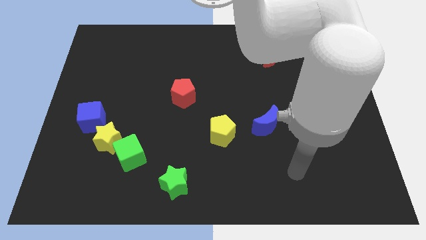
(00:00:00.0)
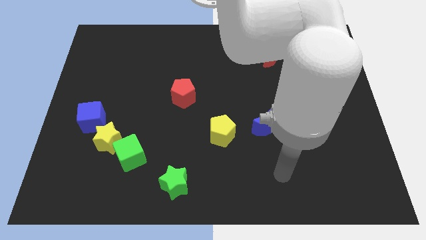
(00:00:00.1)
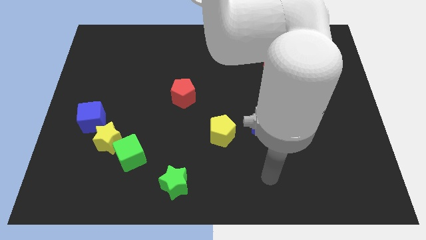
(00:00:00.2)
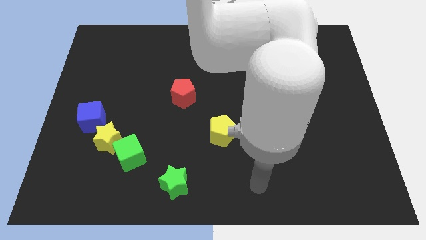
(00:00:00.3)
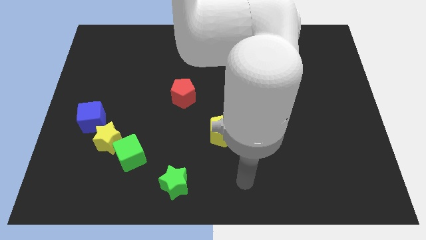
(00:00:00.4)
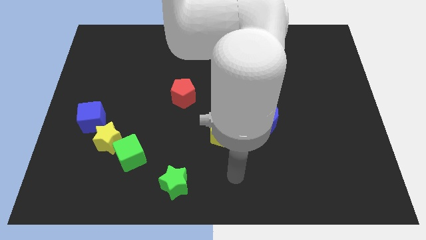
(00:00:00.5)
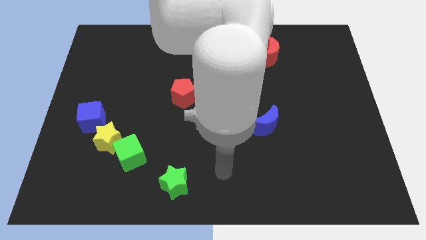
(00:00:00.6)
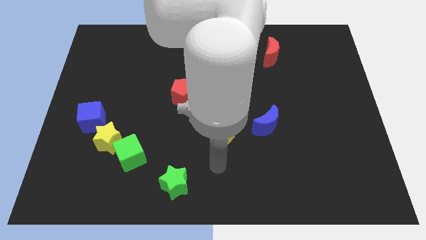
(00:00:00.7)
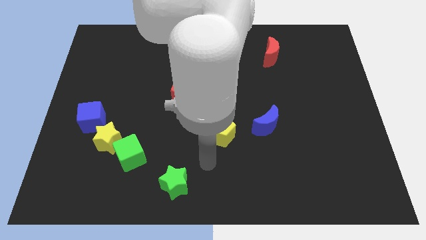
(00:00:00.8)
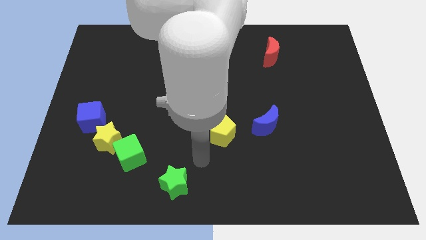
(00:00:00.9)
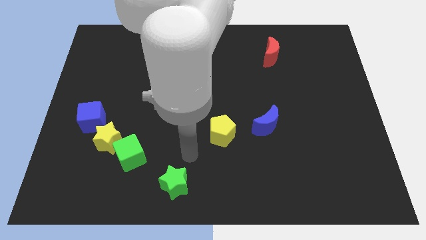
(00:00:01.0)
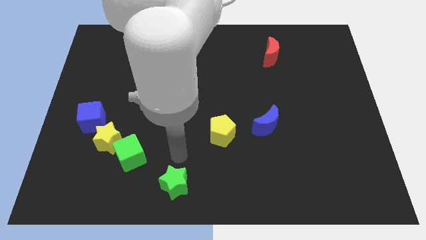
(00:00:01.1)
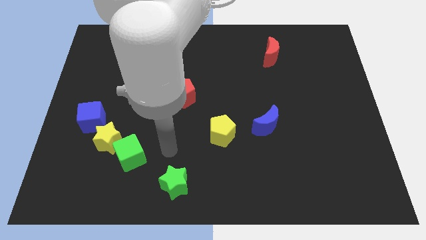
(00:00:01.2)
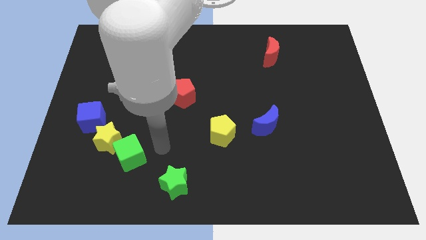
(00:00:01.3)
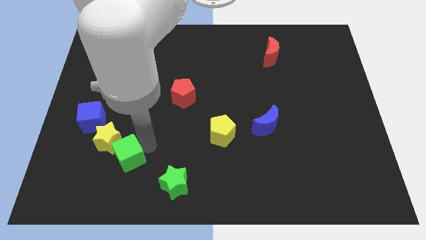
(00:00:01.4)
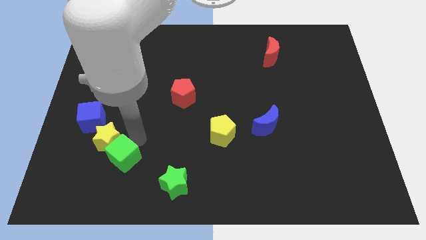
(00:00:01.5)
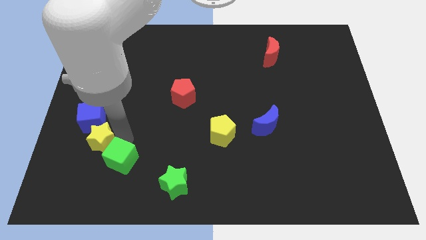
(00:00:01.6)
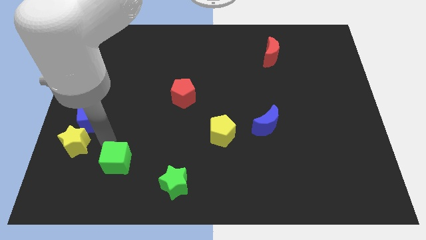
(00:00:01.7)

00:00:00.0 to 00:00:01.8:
pull the green cube apart from the yellow star

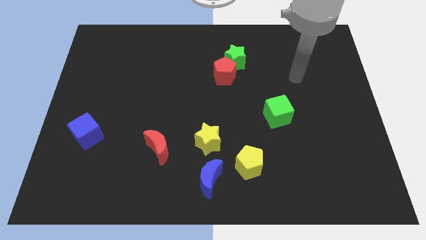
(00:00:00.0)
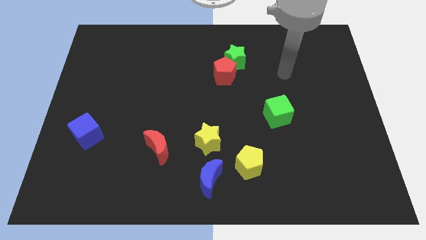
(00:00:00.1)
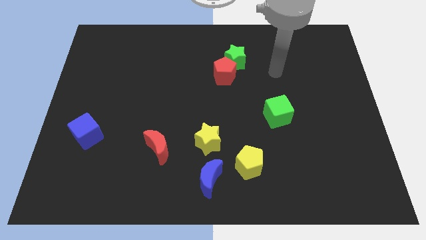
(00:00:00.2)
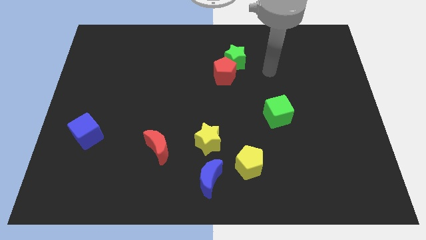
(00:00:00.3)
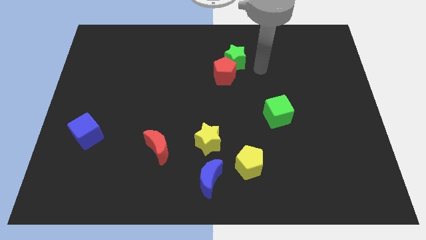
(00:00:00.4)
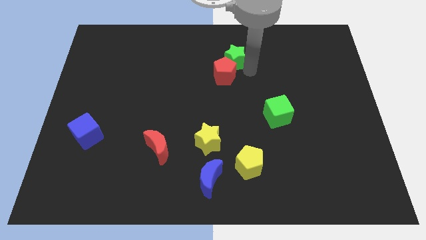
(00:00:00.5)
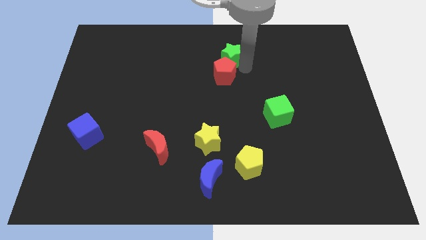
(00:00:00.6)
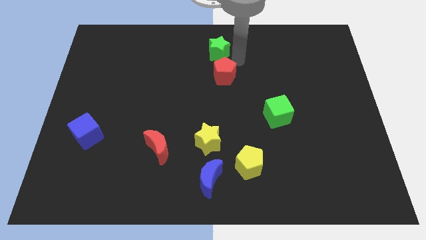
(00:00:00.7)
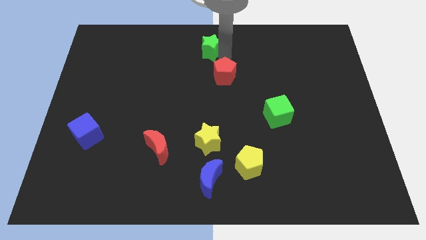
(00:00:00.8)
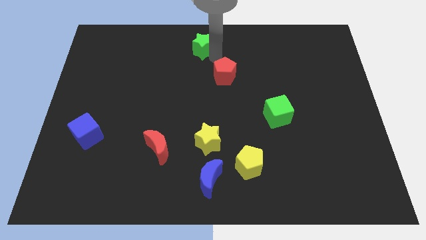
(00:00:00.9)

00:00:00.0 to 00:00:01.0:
pull the red pentagon apart from the green star

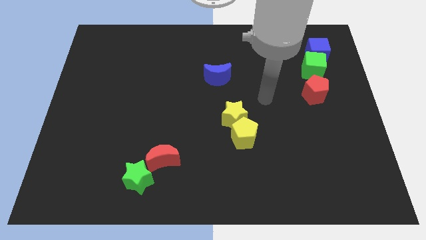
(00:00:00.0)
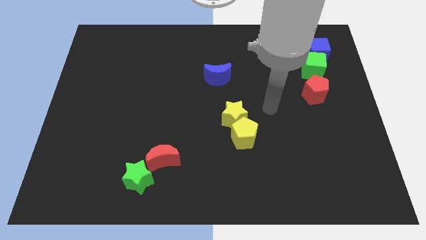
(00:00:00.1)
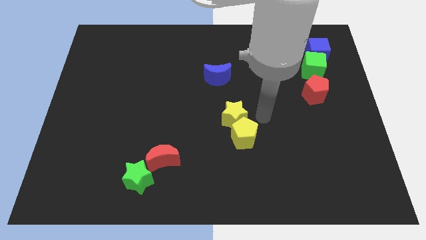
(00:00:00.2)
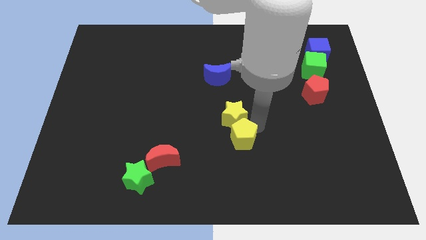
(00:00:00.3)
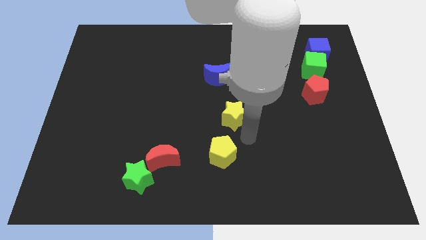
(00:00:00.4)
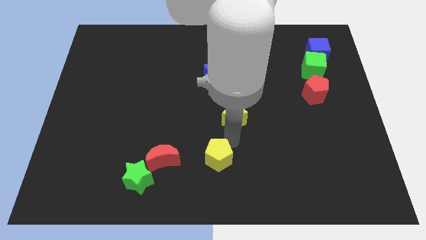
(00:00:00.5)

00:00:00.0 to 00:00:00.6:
move the yellow star away from the yellow pentagon

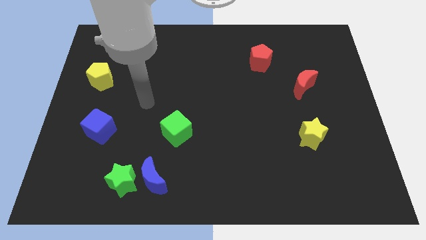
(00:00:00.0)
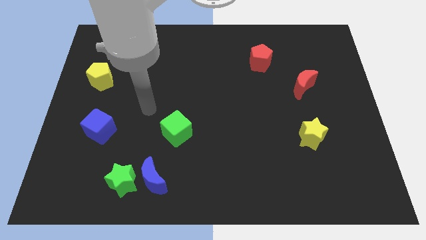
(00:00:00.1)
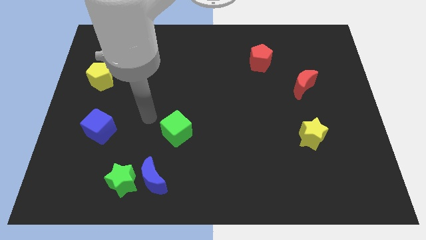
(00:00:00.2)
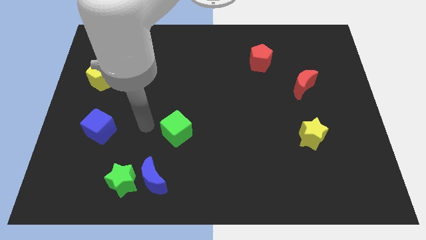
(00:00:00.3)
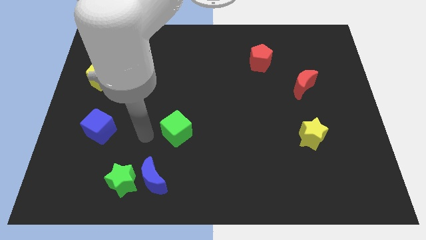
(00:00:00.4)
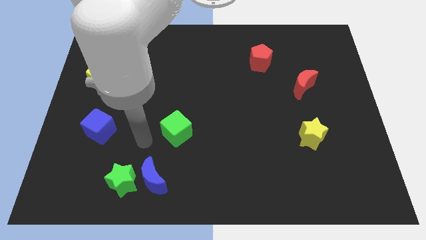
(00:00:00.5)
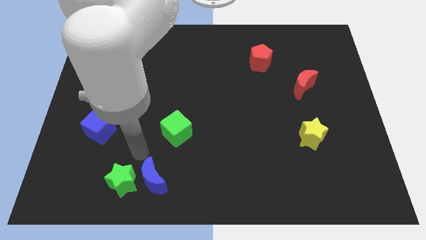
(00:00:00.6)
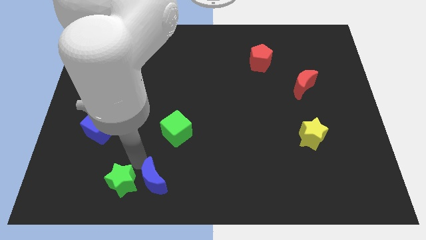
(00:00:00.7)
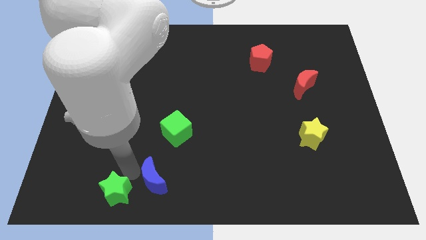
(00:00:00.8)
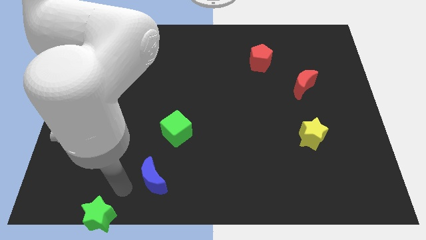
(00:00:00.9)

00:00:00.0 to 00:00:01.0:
move the blue moon away from the green star

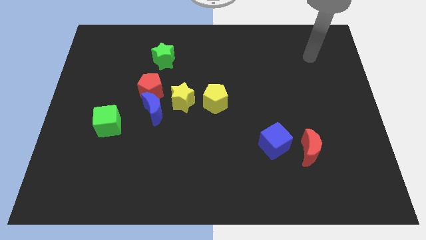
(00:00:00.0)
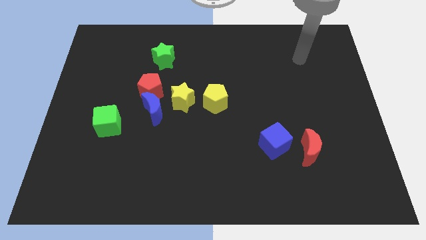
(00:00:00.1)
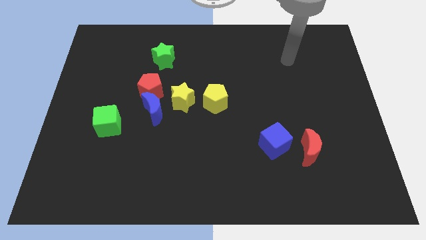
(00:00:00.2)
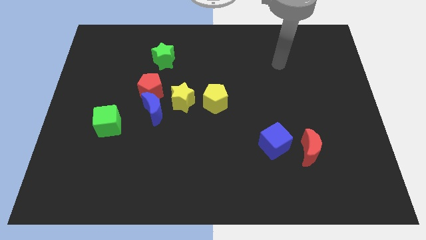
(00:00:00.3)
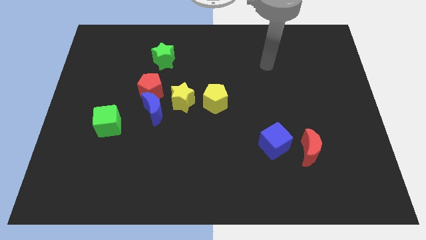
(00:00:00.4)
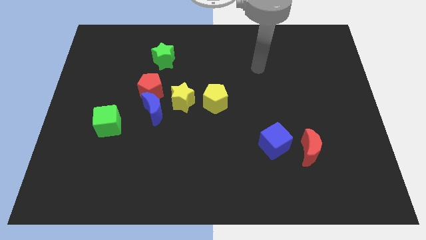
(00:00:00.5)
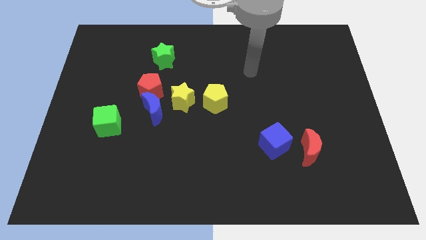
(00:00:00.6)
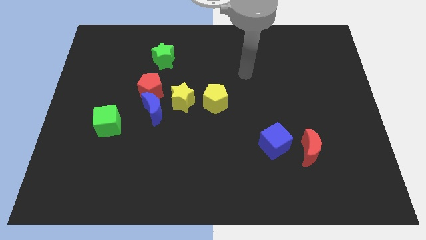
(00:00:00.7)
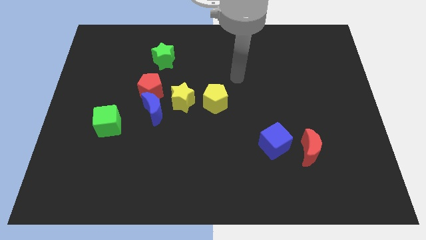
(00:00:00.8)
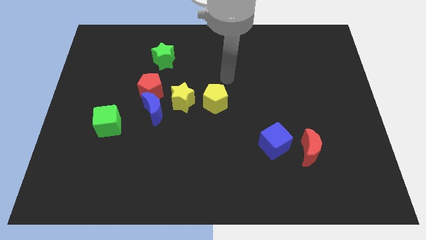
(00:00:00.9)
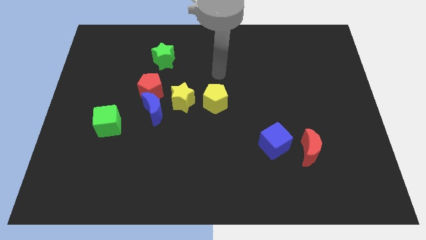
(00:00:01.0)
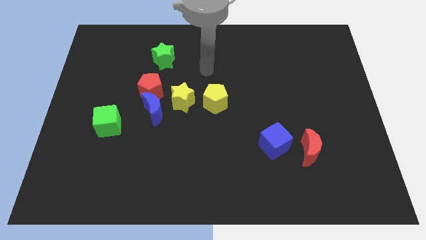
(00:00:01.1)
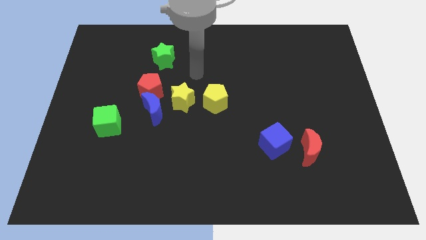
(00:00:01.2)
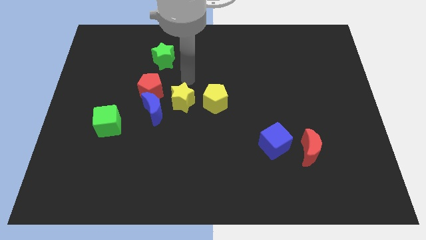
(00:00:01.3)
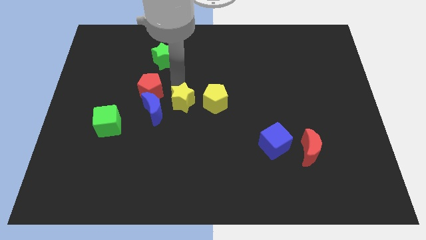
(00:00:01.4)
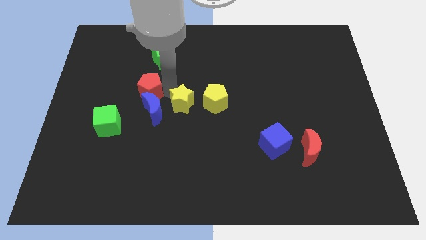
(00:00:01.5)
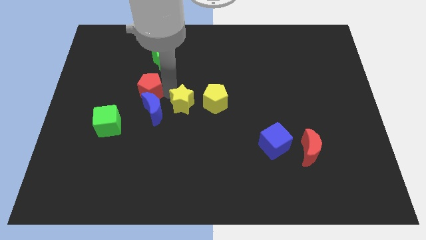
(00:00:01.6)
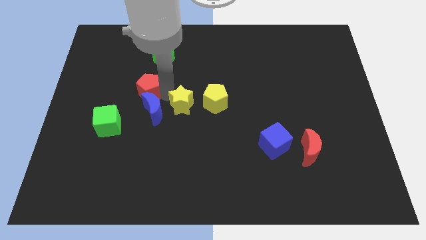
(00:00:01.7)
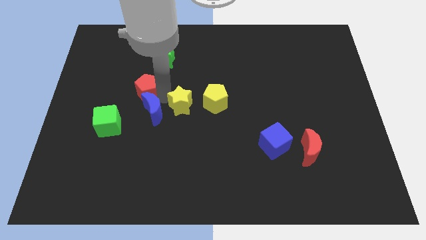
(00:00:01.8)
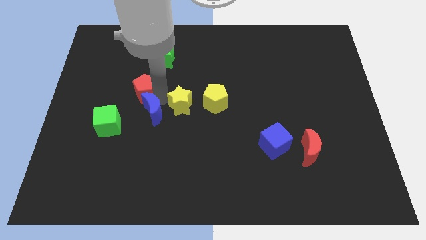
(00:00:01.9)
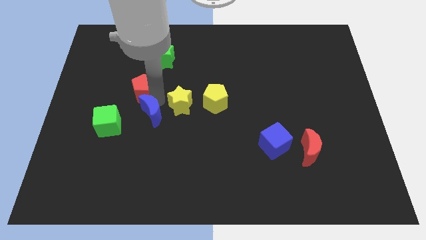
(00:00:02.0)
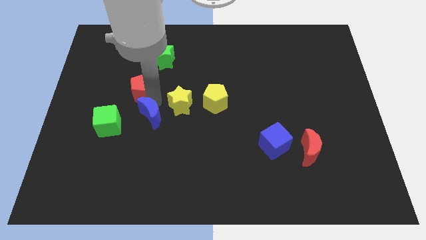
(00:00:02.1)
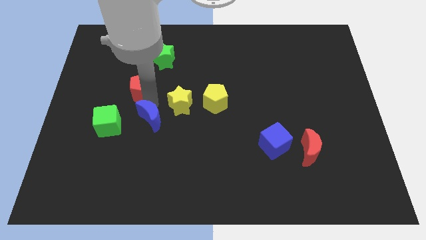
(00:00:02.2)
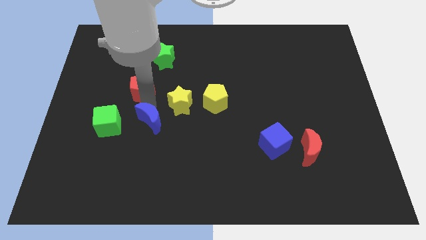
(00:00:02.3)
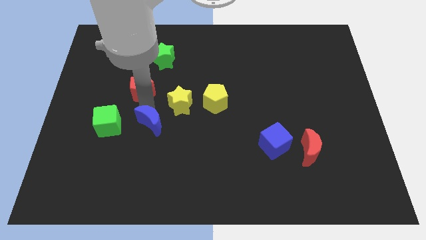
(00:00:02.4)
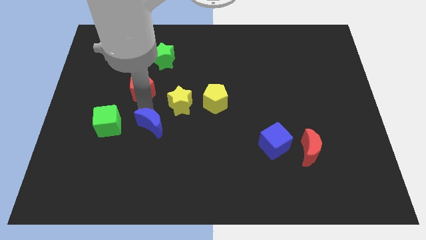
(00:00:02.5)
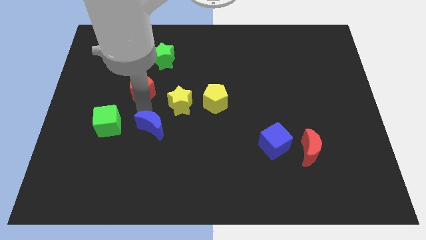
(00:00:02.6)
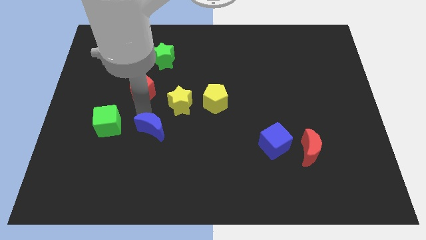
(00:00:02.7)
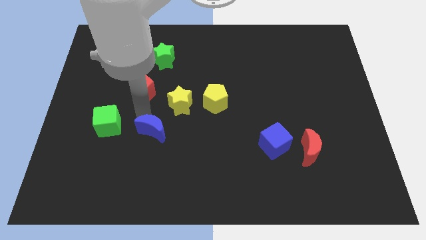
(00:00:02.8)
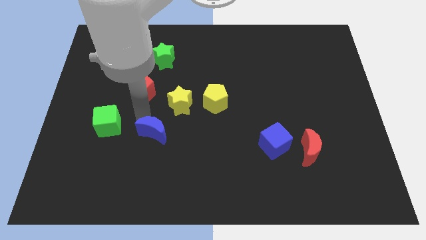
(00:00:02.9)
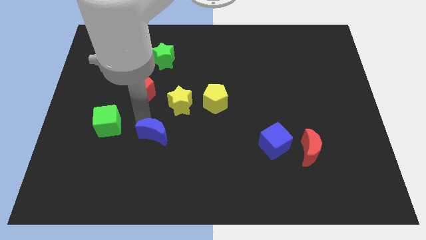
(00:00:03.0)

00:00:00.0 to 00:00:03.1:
move the blue moon away from the red pentagon and yellow star

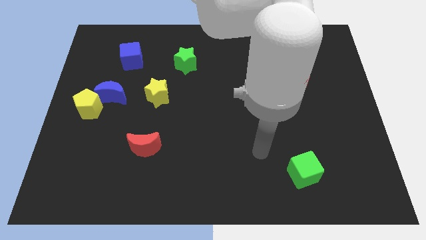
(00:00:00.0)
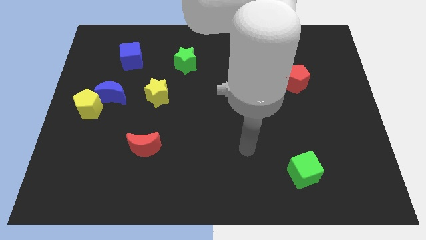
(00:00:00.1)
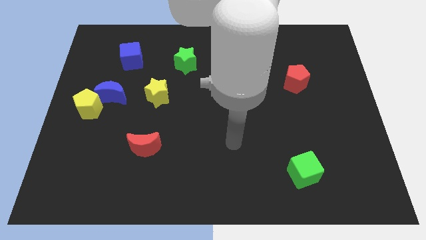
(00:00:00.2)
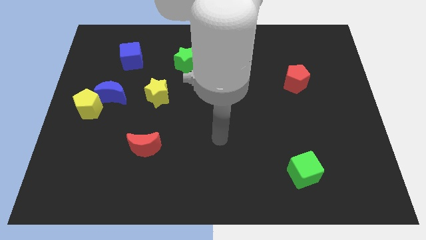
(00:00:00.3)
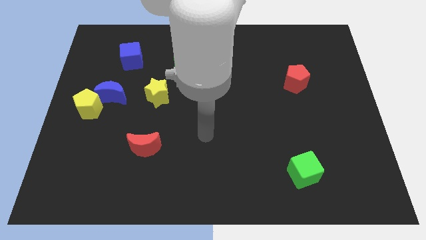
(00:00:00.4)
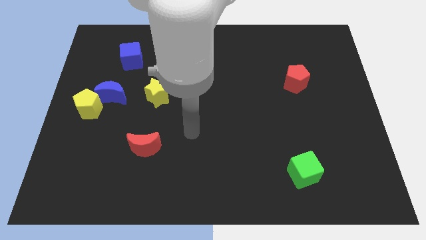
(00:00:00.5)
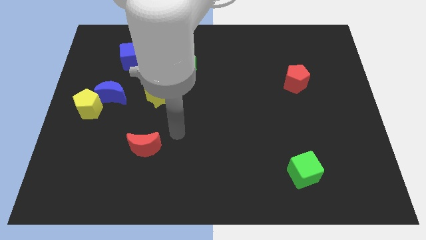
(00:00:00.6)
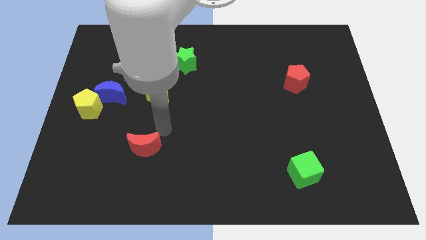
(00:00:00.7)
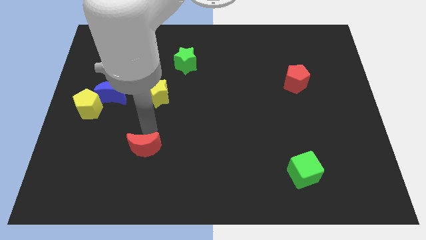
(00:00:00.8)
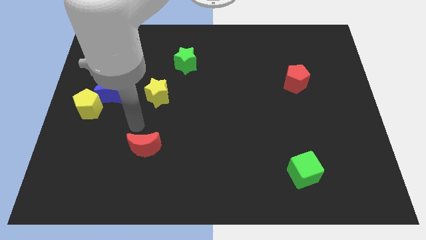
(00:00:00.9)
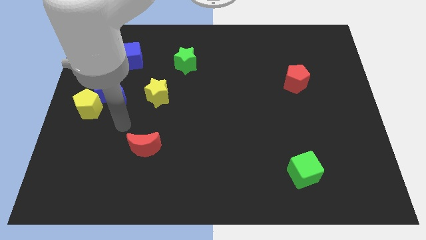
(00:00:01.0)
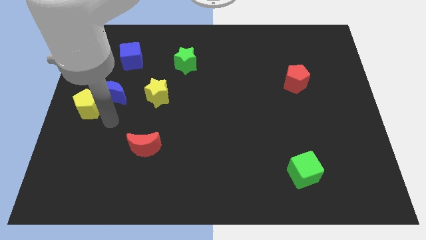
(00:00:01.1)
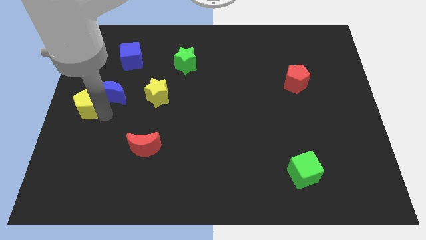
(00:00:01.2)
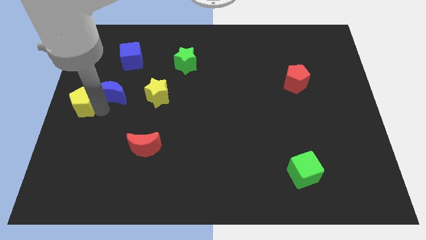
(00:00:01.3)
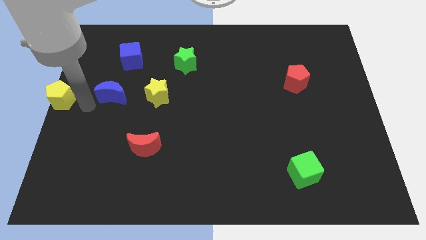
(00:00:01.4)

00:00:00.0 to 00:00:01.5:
move the blue moon away from the yellow pentagon

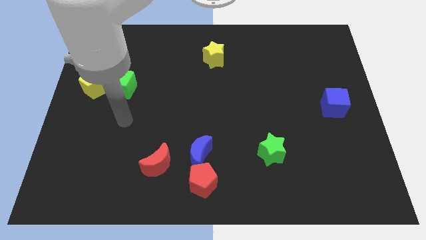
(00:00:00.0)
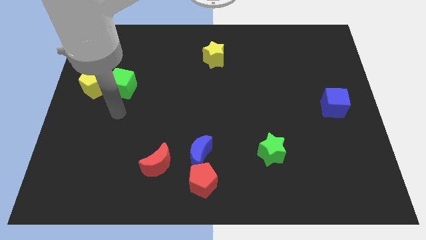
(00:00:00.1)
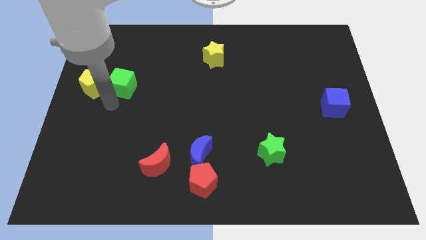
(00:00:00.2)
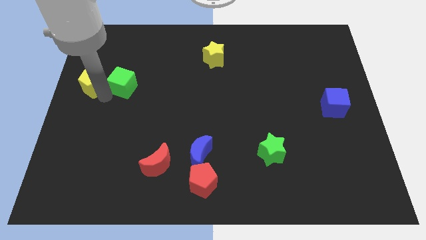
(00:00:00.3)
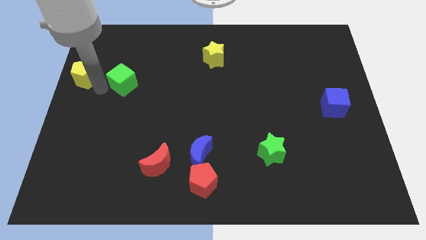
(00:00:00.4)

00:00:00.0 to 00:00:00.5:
separate the green cube from the yellow pentagon
